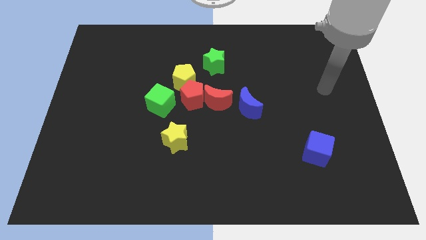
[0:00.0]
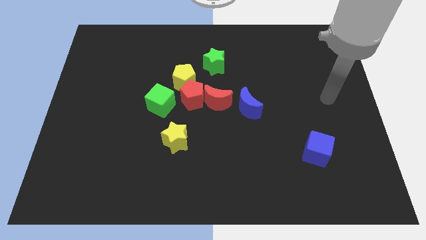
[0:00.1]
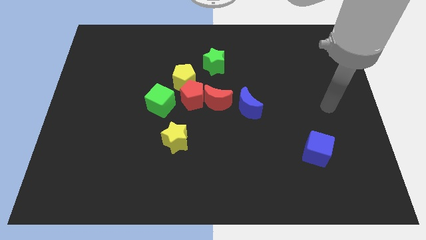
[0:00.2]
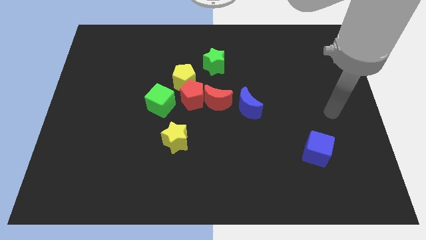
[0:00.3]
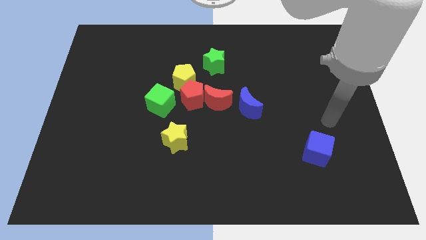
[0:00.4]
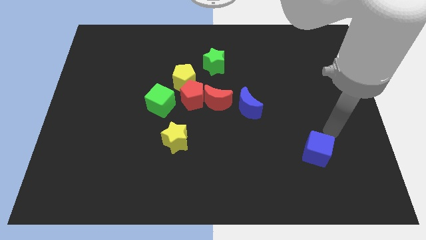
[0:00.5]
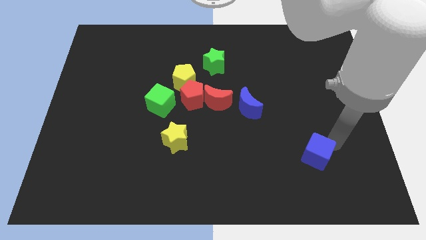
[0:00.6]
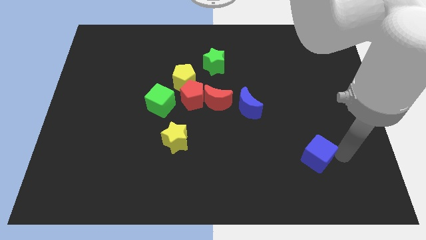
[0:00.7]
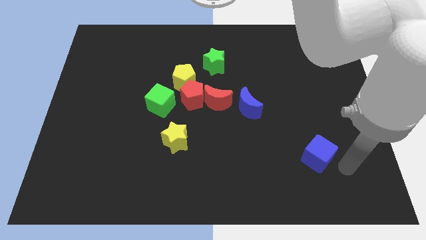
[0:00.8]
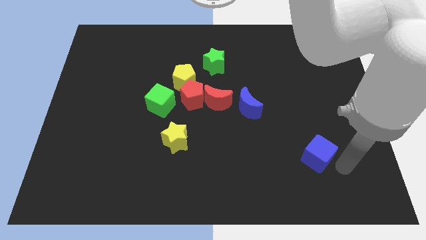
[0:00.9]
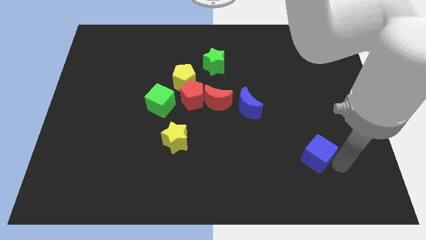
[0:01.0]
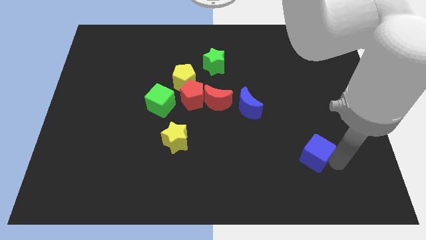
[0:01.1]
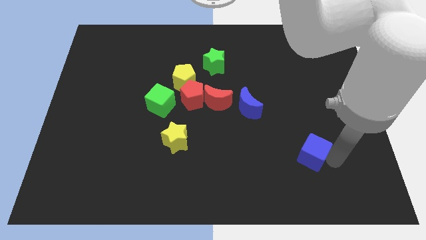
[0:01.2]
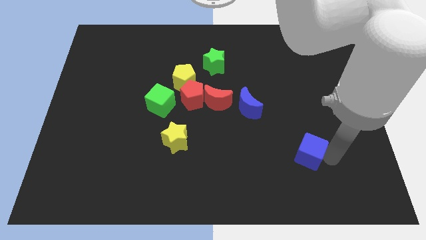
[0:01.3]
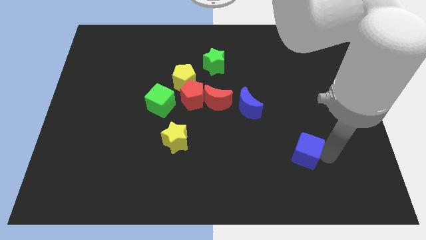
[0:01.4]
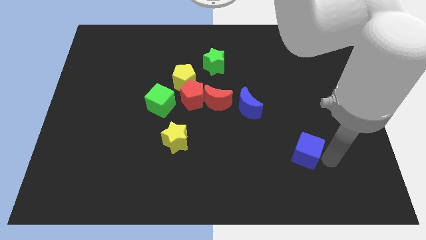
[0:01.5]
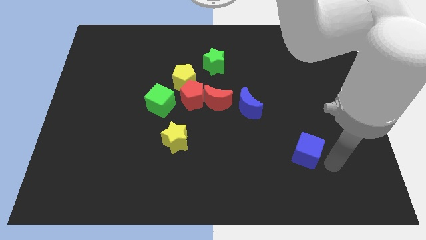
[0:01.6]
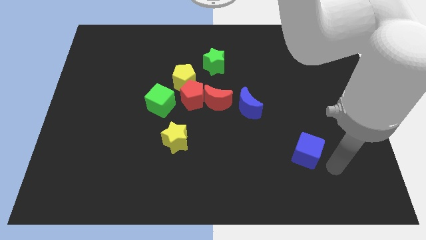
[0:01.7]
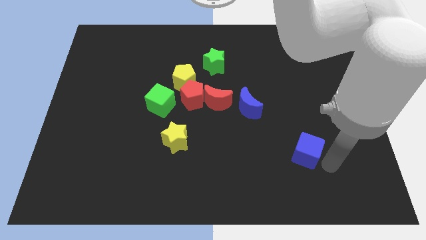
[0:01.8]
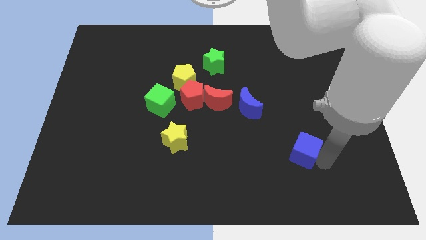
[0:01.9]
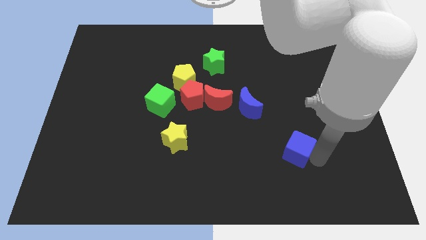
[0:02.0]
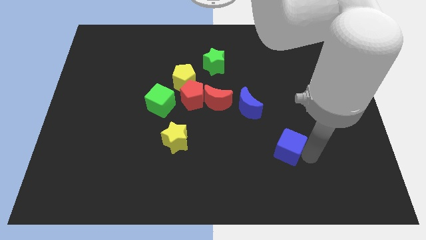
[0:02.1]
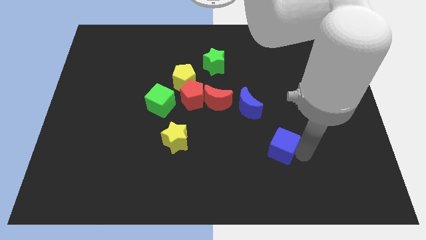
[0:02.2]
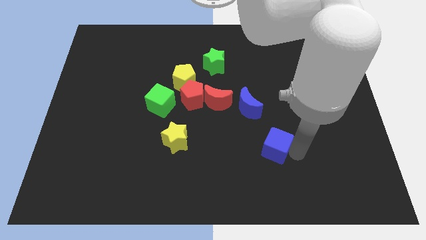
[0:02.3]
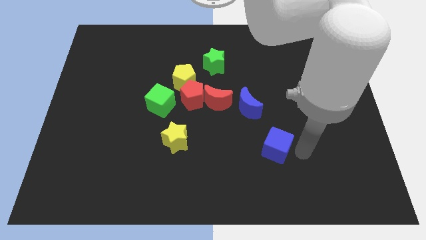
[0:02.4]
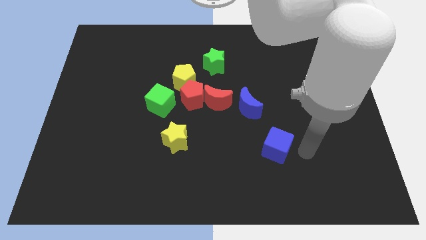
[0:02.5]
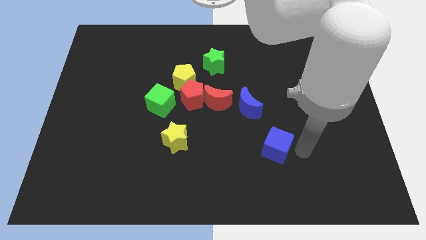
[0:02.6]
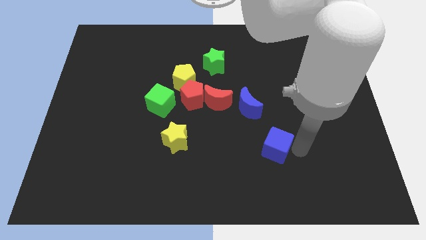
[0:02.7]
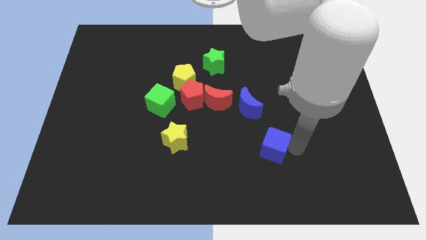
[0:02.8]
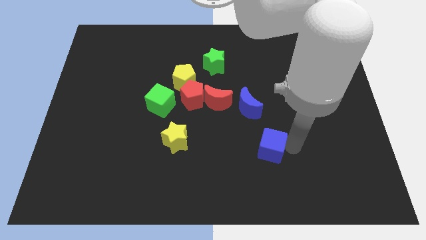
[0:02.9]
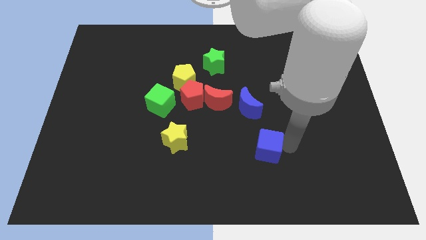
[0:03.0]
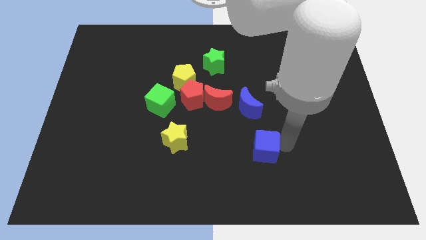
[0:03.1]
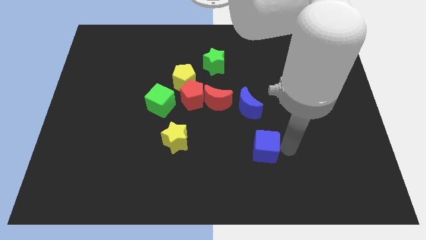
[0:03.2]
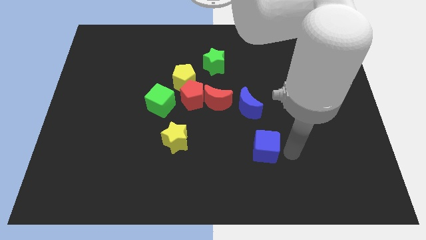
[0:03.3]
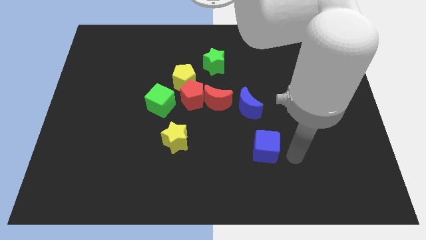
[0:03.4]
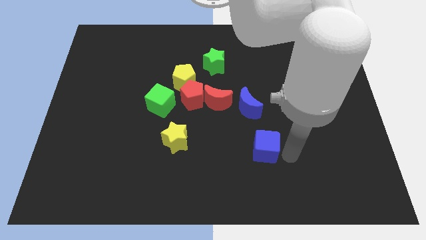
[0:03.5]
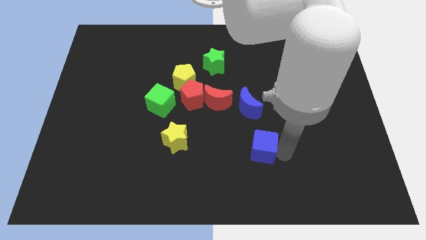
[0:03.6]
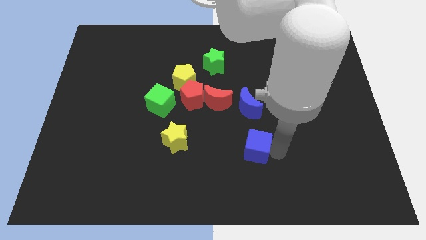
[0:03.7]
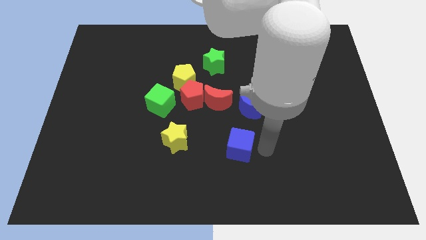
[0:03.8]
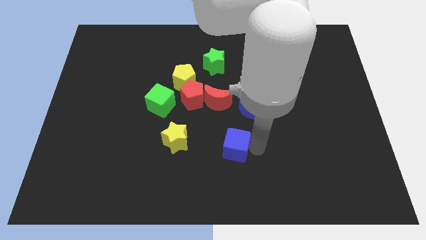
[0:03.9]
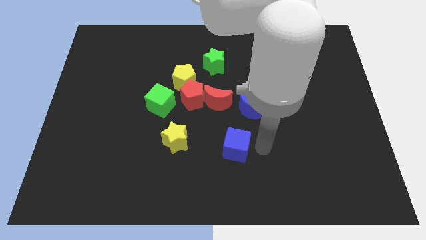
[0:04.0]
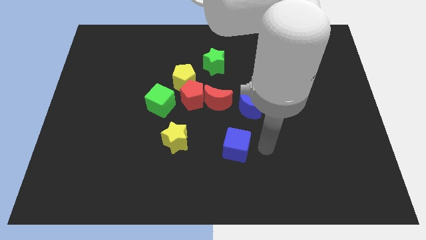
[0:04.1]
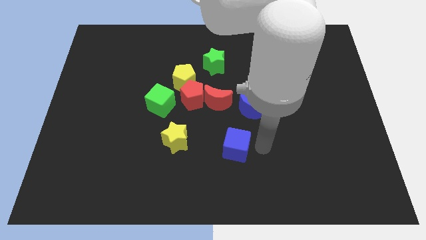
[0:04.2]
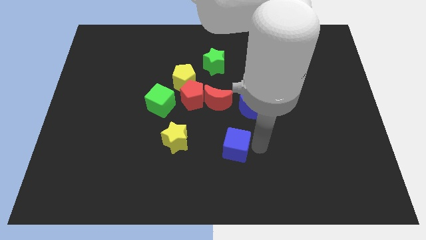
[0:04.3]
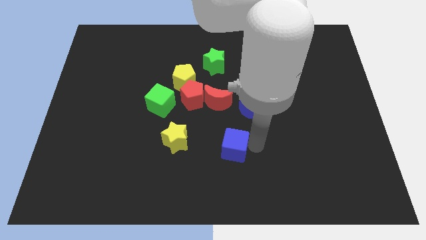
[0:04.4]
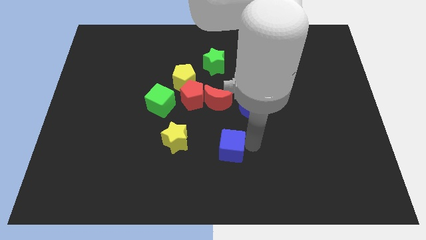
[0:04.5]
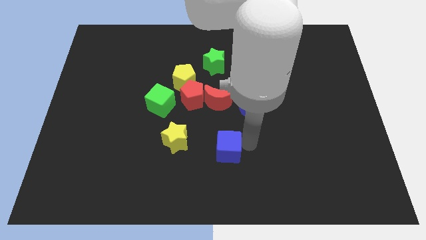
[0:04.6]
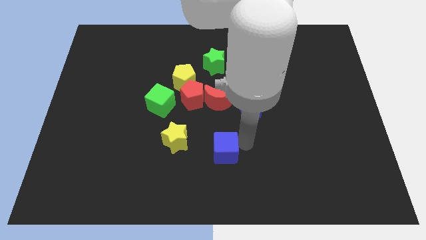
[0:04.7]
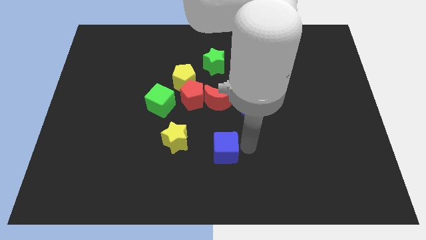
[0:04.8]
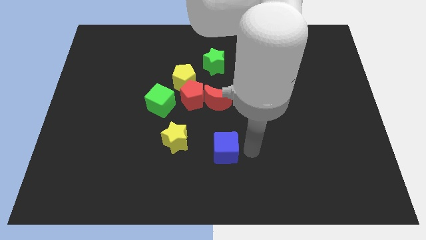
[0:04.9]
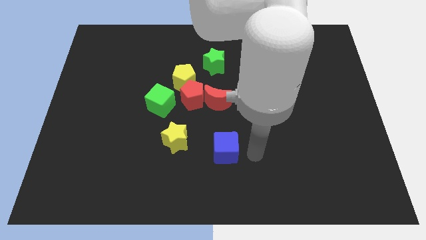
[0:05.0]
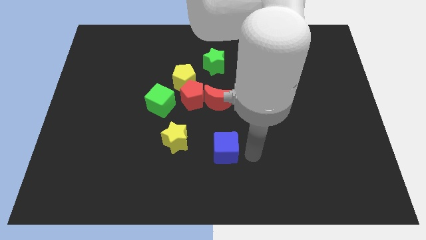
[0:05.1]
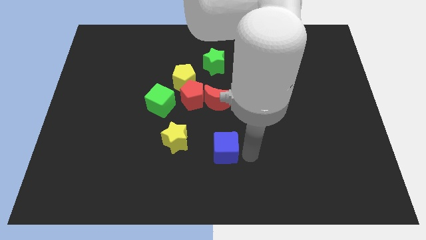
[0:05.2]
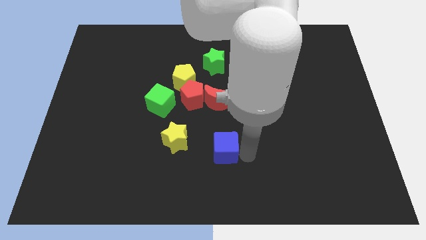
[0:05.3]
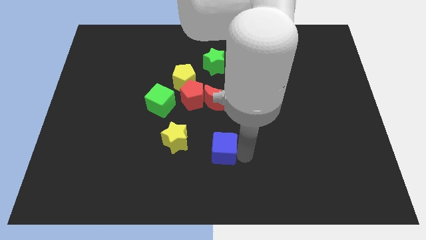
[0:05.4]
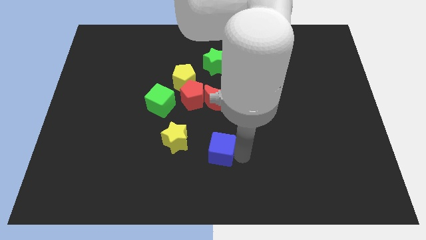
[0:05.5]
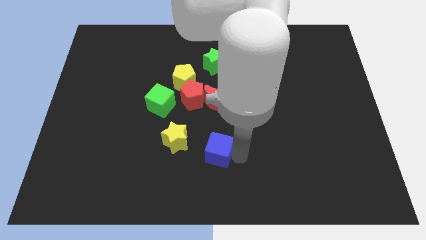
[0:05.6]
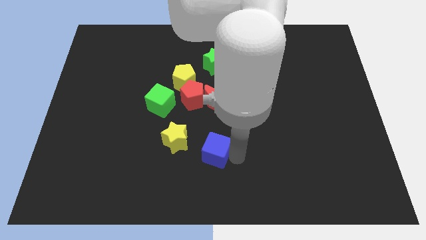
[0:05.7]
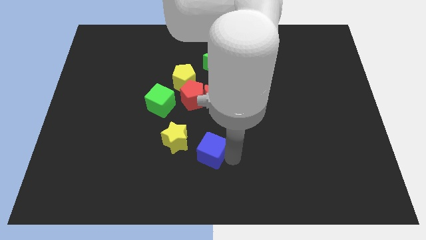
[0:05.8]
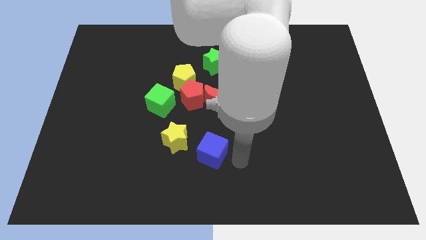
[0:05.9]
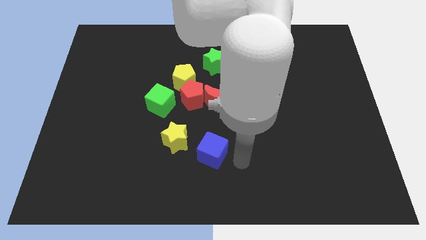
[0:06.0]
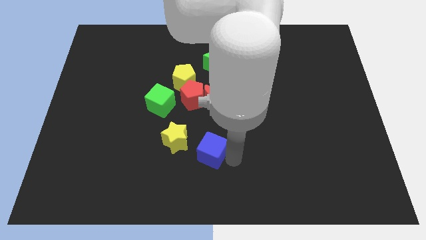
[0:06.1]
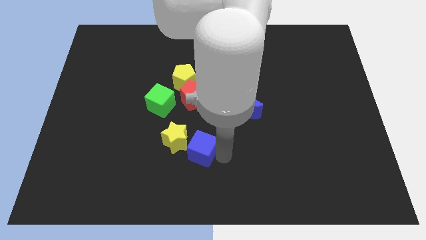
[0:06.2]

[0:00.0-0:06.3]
slide the blue cube towards the yellow star
